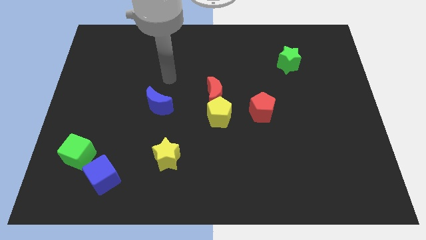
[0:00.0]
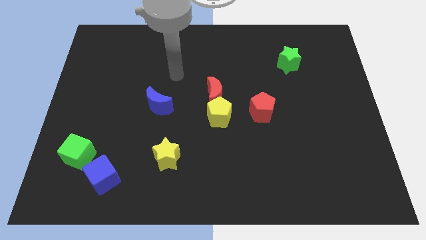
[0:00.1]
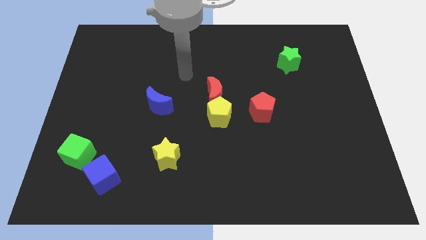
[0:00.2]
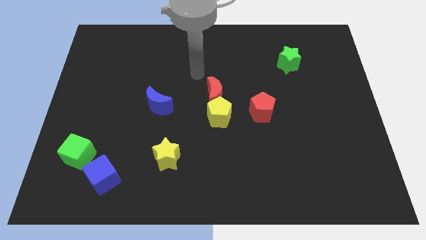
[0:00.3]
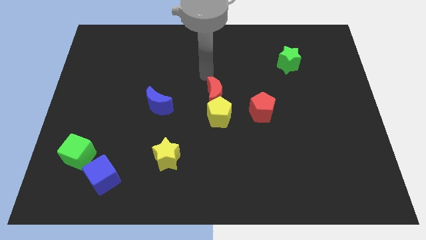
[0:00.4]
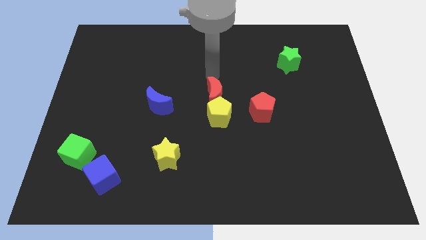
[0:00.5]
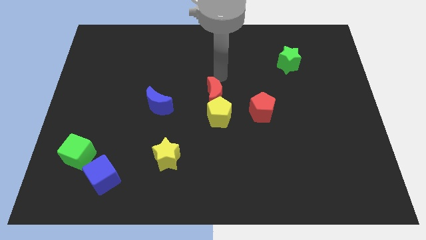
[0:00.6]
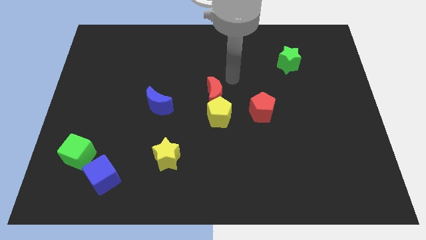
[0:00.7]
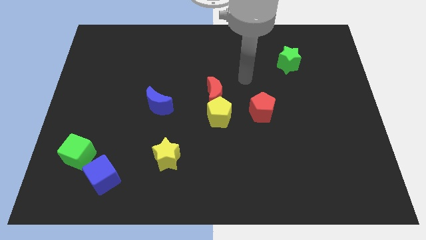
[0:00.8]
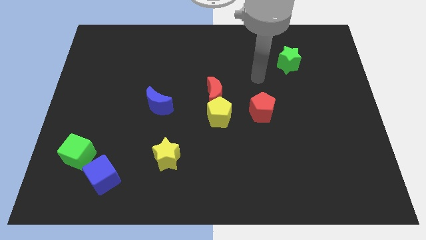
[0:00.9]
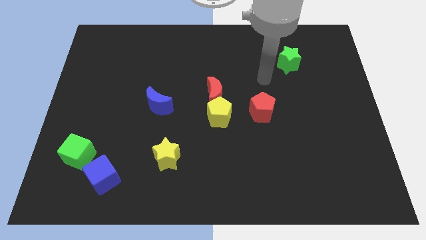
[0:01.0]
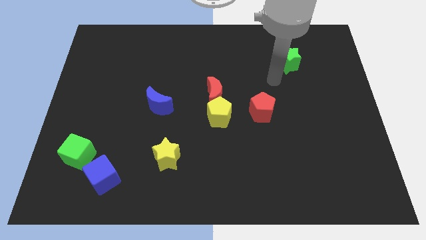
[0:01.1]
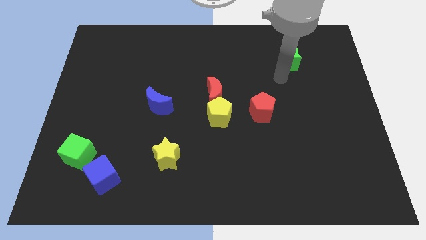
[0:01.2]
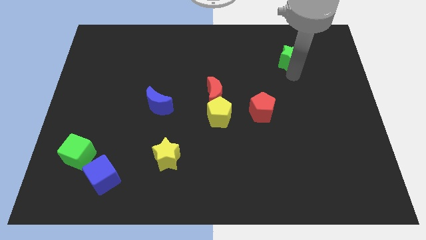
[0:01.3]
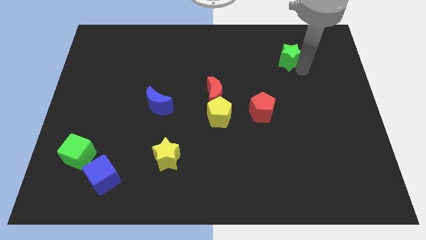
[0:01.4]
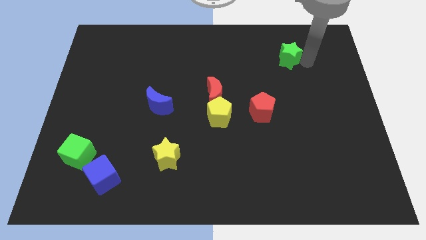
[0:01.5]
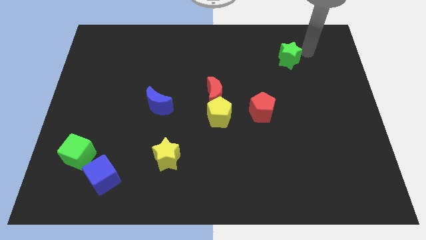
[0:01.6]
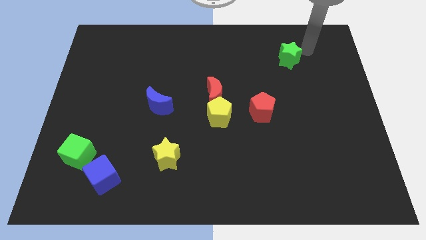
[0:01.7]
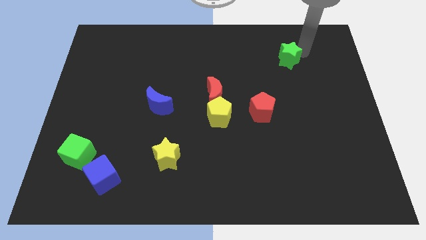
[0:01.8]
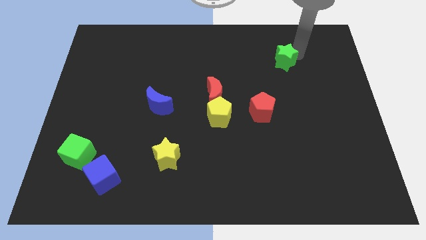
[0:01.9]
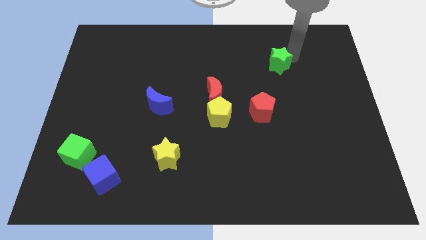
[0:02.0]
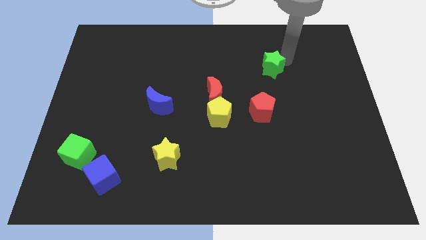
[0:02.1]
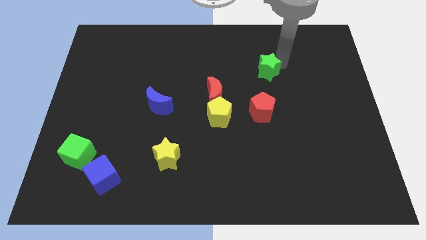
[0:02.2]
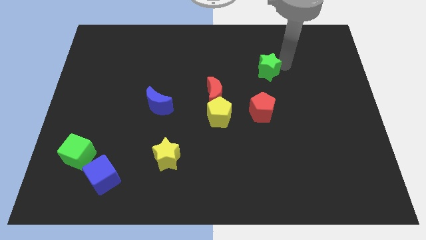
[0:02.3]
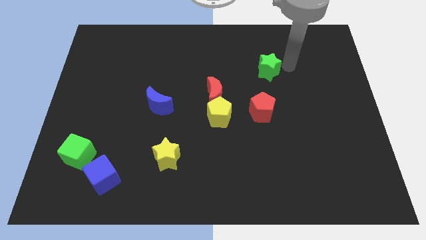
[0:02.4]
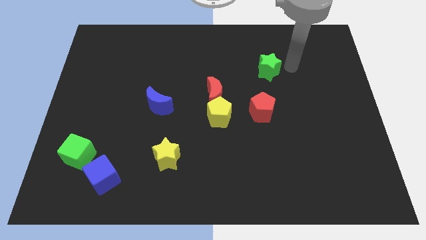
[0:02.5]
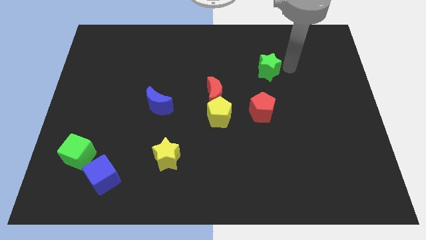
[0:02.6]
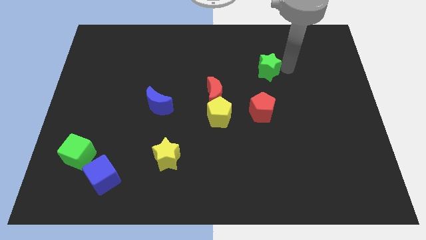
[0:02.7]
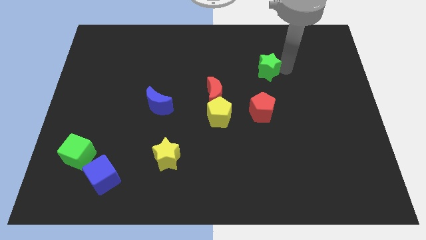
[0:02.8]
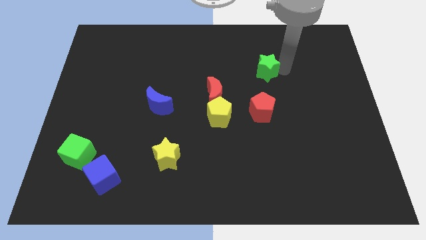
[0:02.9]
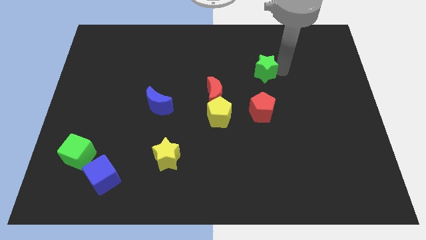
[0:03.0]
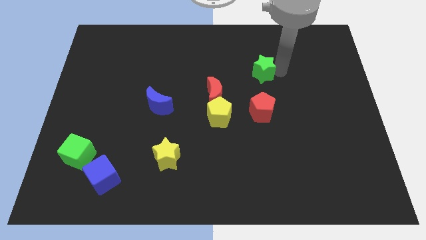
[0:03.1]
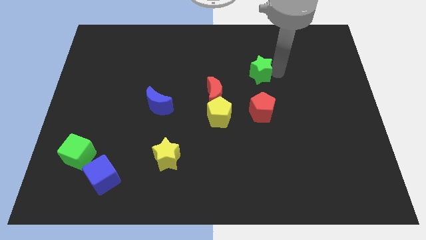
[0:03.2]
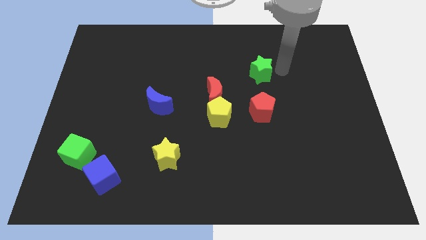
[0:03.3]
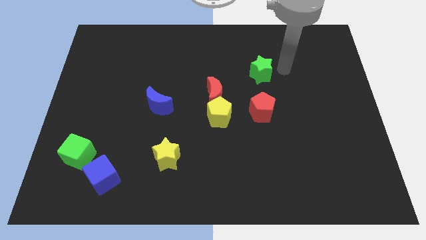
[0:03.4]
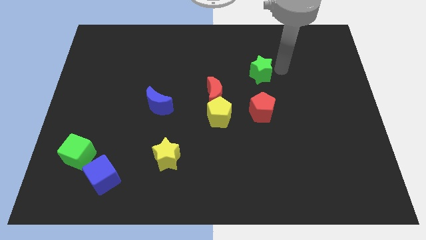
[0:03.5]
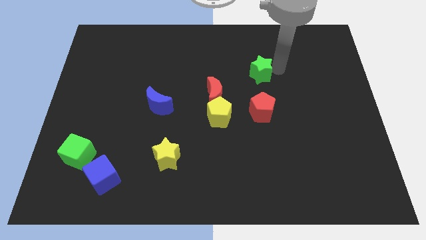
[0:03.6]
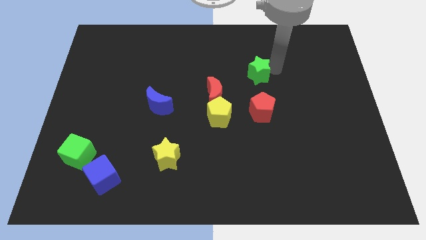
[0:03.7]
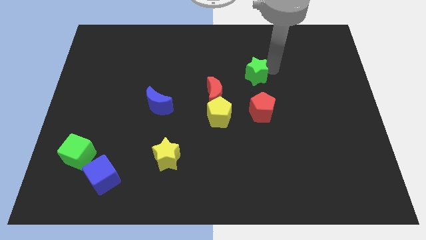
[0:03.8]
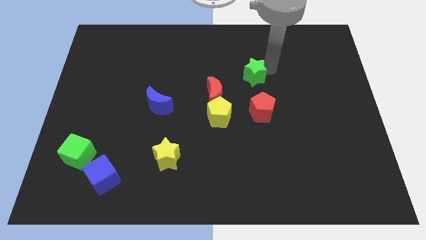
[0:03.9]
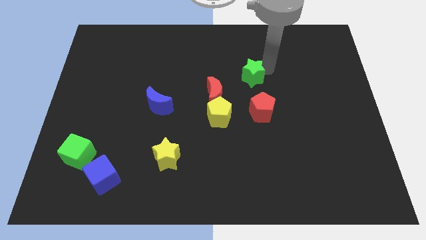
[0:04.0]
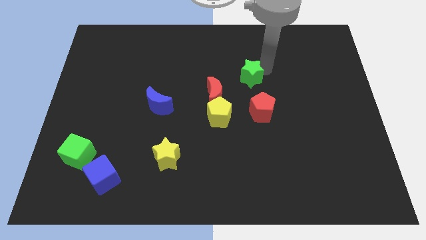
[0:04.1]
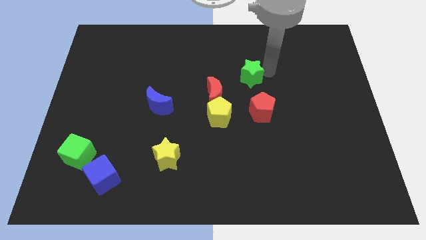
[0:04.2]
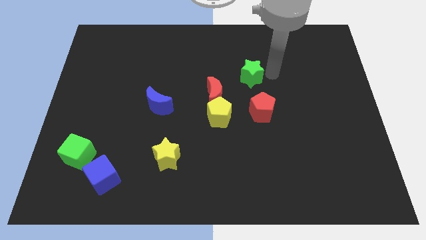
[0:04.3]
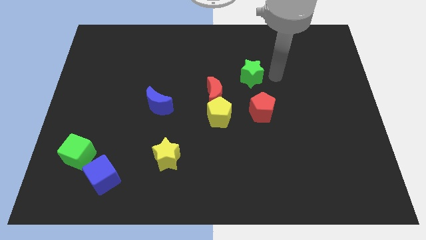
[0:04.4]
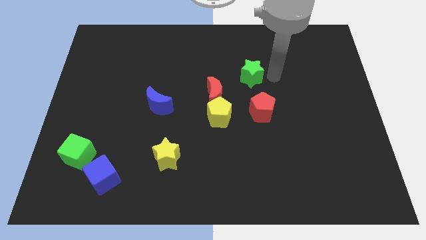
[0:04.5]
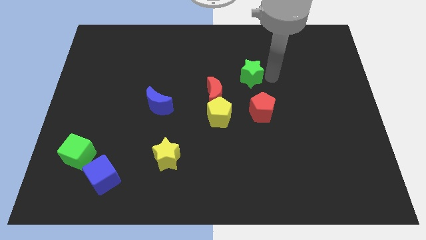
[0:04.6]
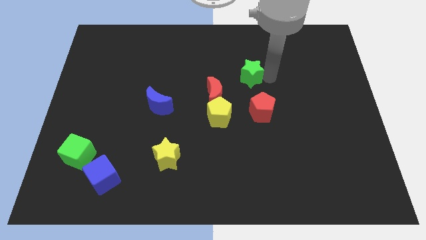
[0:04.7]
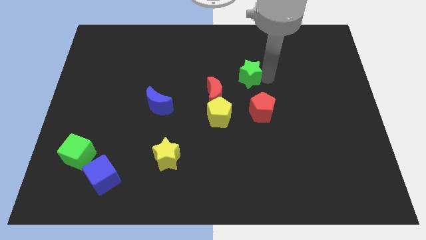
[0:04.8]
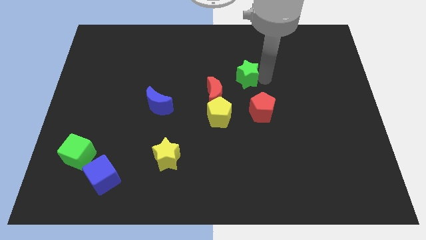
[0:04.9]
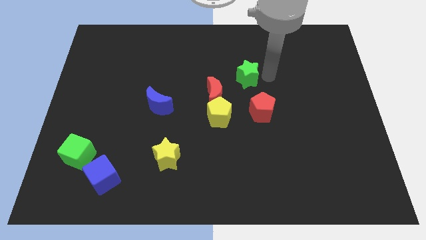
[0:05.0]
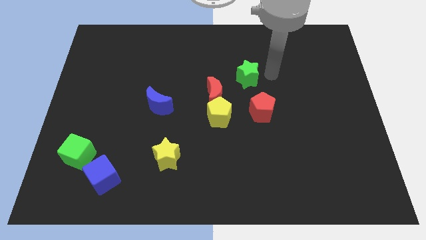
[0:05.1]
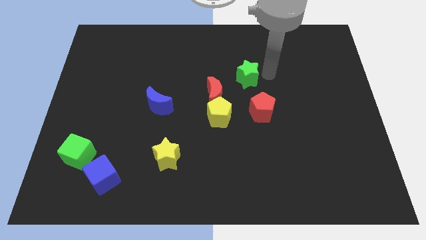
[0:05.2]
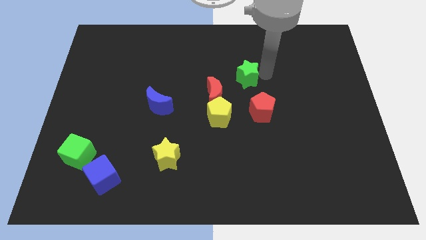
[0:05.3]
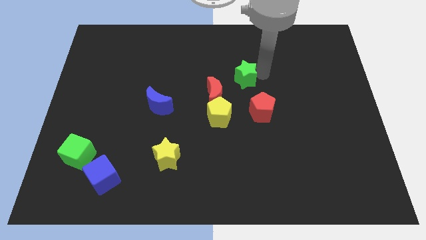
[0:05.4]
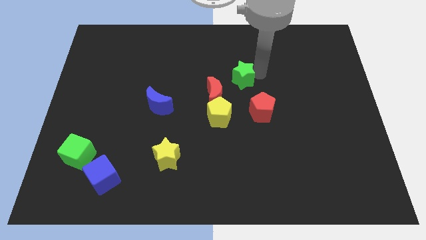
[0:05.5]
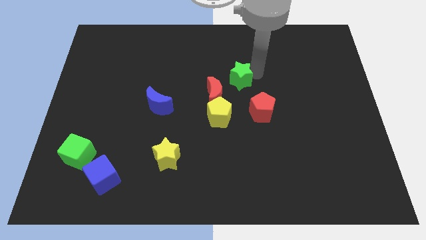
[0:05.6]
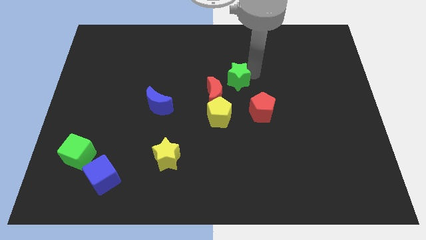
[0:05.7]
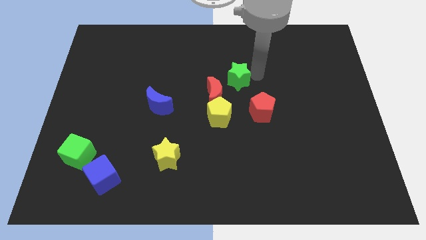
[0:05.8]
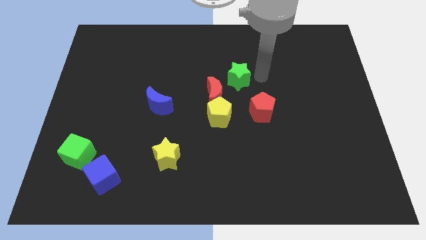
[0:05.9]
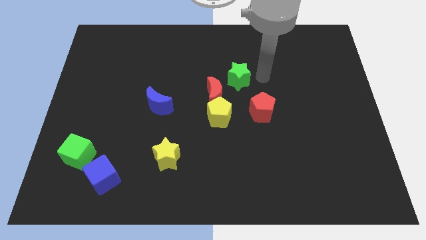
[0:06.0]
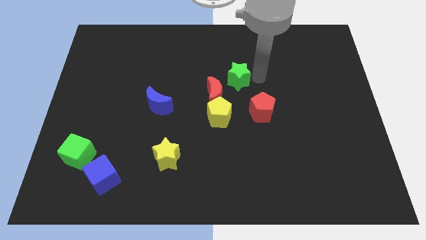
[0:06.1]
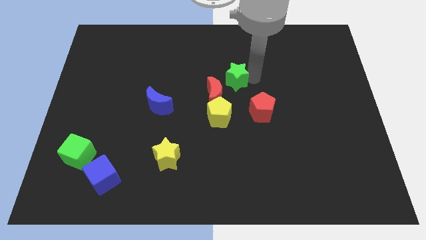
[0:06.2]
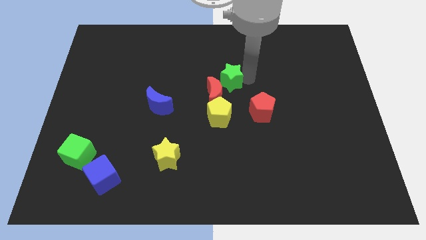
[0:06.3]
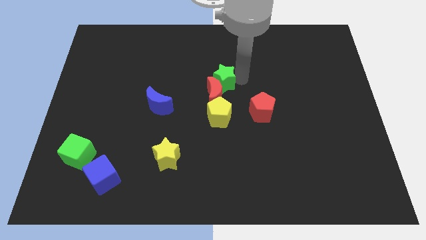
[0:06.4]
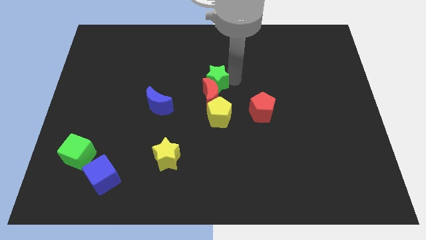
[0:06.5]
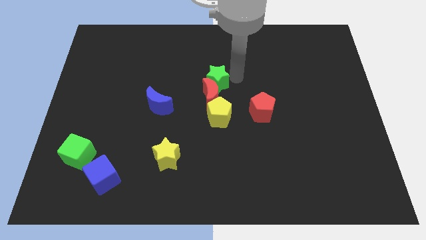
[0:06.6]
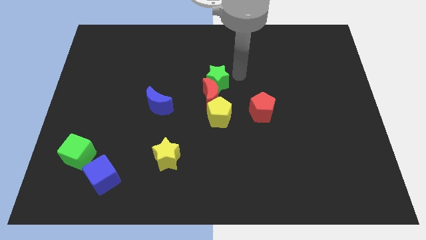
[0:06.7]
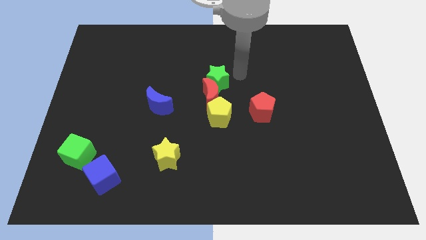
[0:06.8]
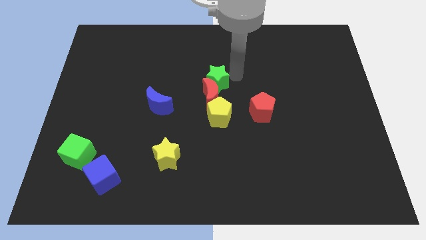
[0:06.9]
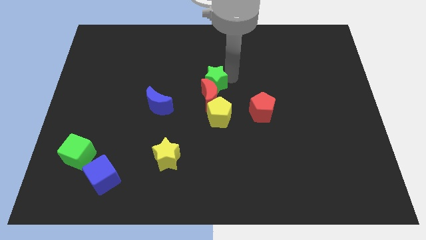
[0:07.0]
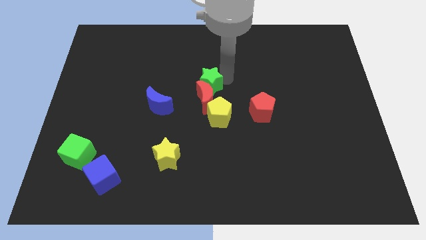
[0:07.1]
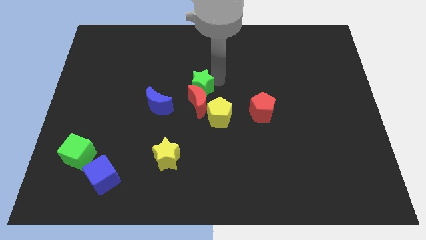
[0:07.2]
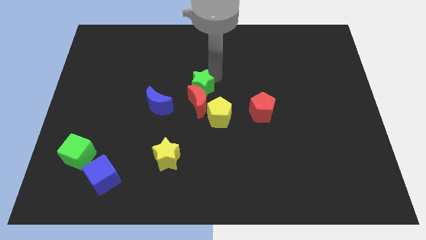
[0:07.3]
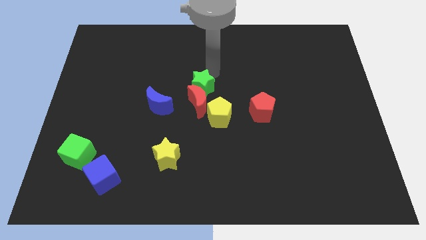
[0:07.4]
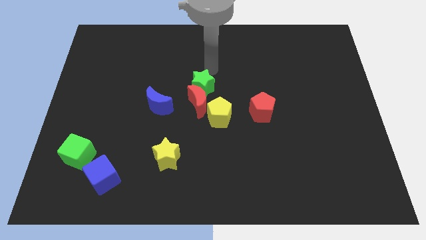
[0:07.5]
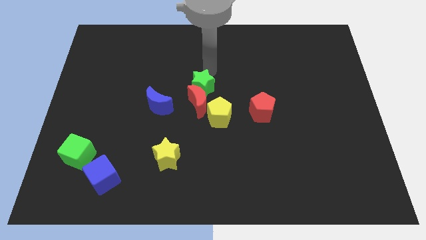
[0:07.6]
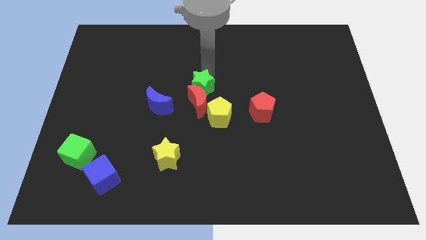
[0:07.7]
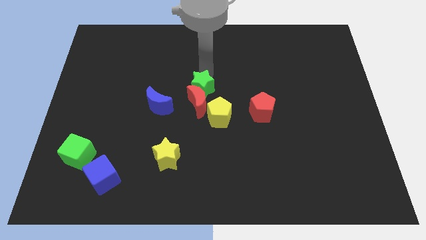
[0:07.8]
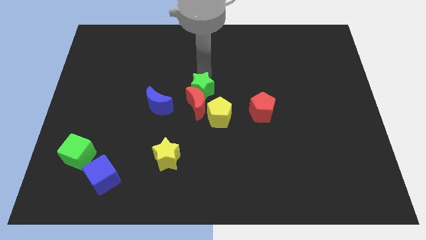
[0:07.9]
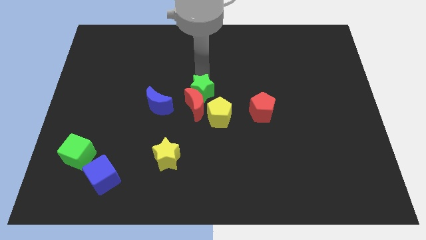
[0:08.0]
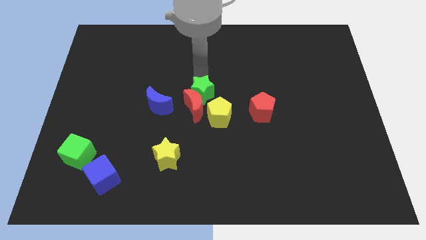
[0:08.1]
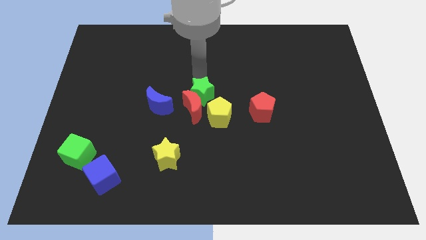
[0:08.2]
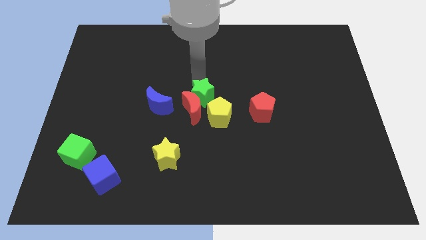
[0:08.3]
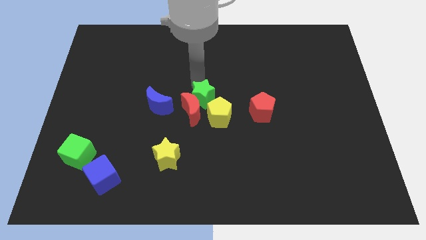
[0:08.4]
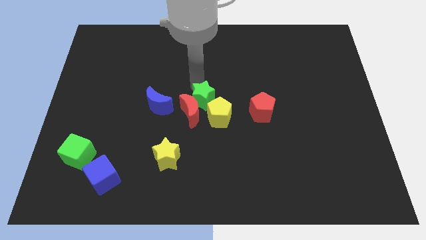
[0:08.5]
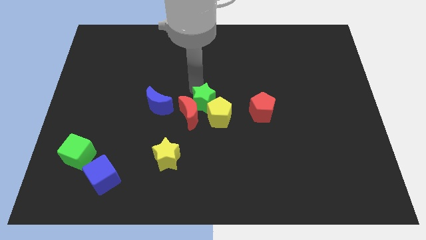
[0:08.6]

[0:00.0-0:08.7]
put the green star to the left side of the yellow pentagon
